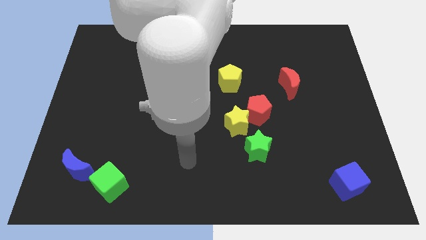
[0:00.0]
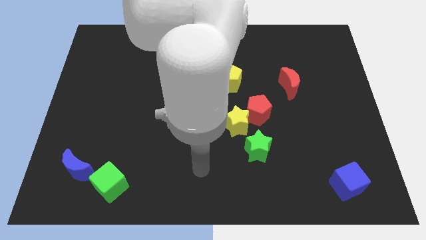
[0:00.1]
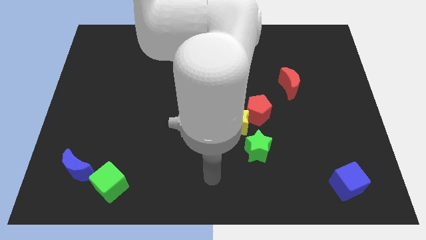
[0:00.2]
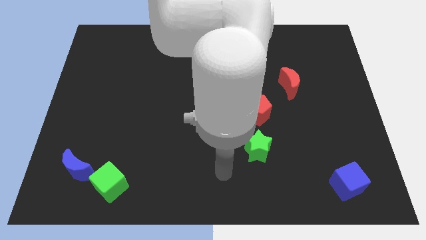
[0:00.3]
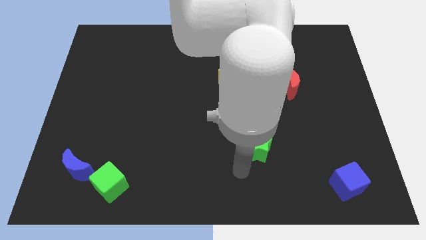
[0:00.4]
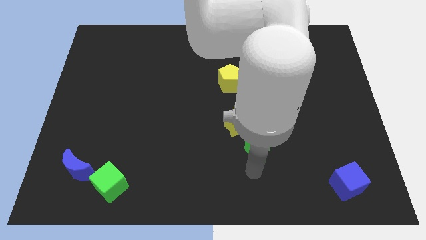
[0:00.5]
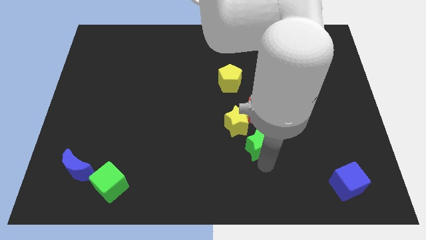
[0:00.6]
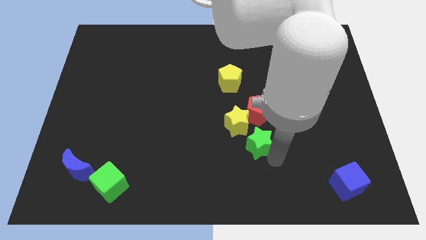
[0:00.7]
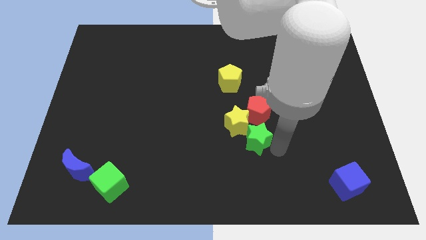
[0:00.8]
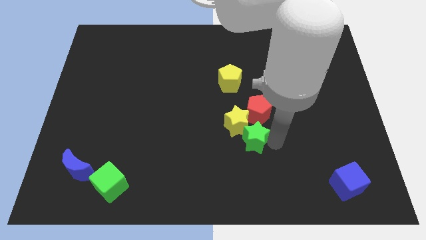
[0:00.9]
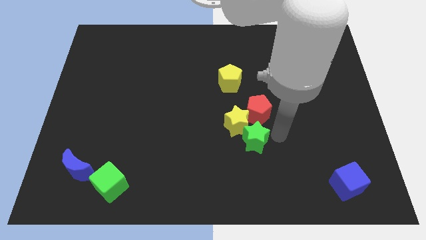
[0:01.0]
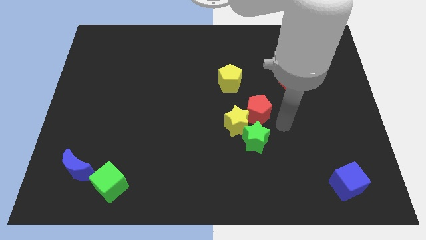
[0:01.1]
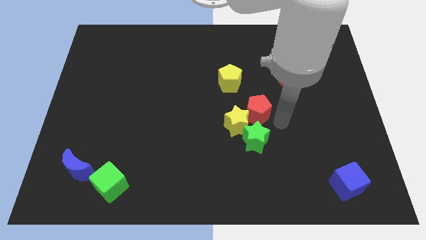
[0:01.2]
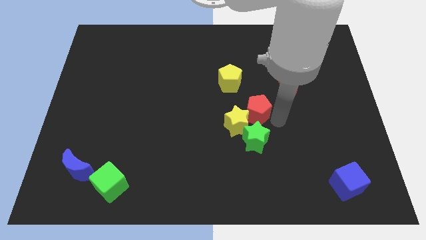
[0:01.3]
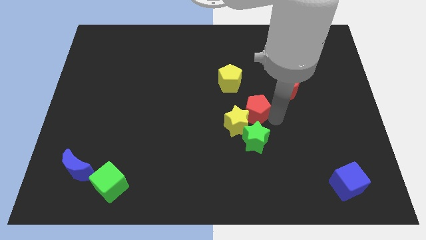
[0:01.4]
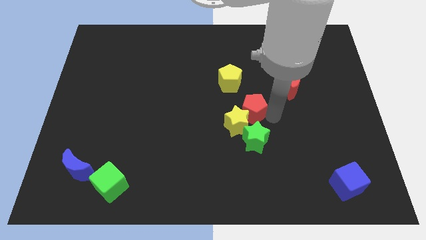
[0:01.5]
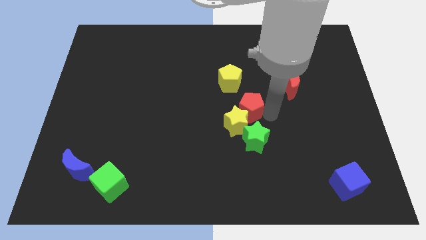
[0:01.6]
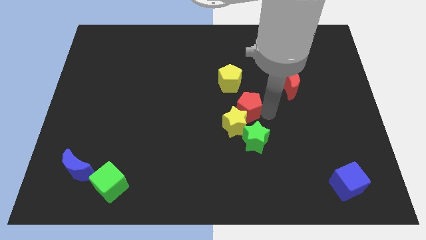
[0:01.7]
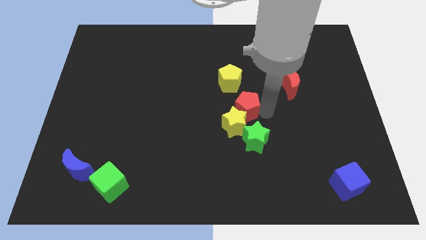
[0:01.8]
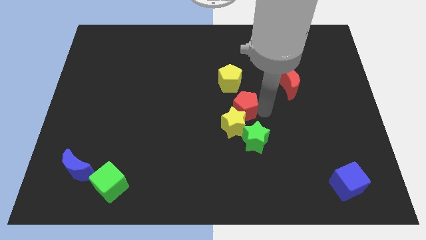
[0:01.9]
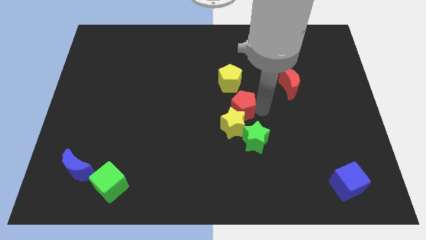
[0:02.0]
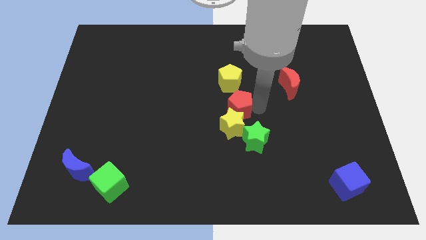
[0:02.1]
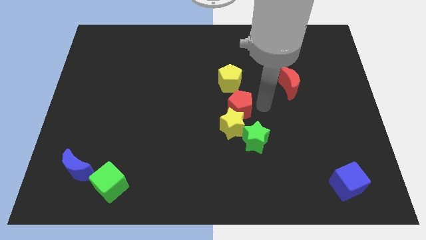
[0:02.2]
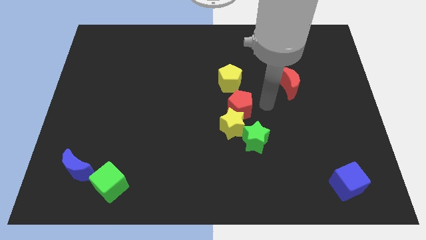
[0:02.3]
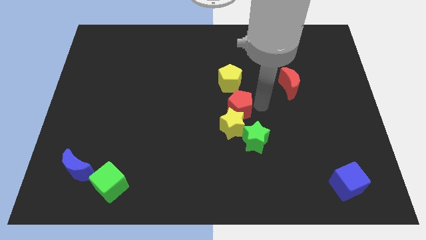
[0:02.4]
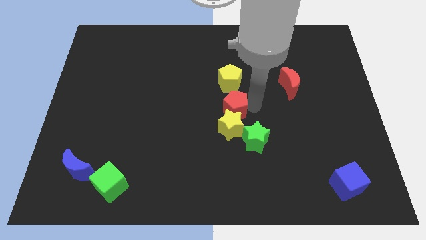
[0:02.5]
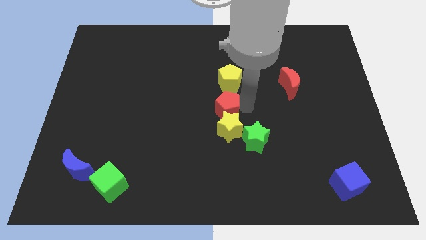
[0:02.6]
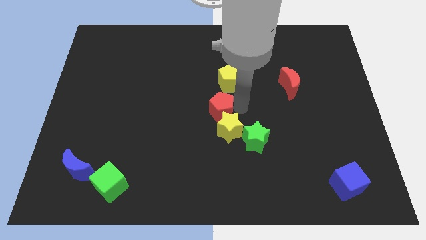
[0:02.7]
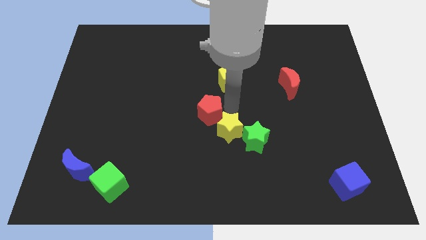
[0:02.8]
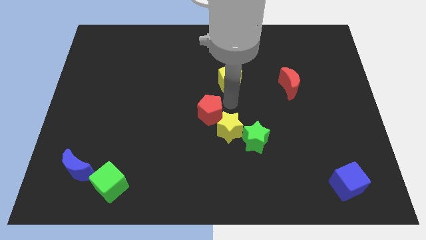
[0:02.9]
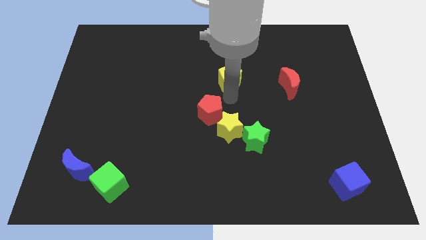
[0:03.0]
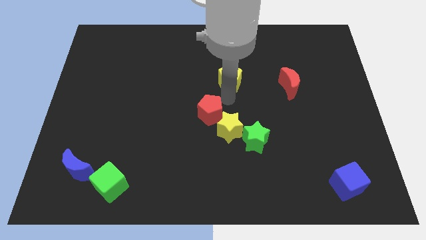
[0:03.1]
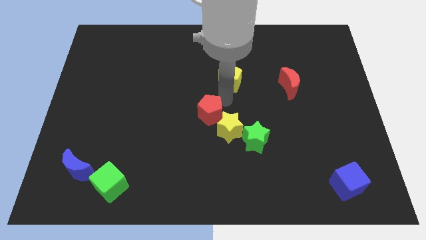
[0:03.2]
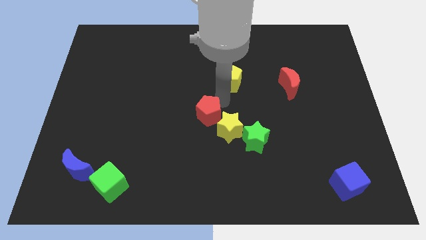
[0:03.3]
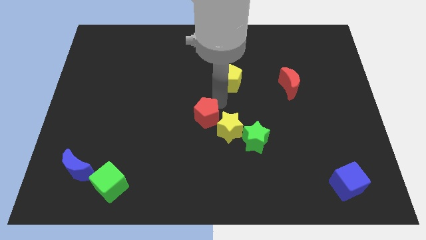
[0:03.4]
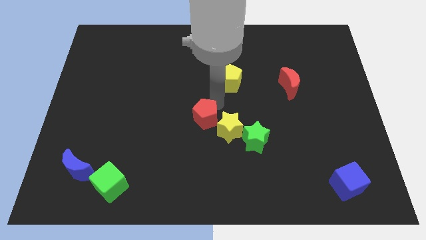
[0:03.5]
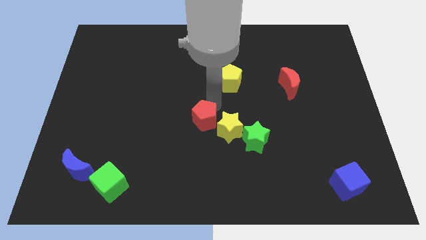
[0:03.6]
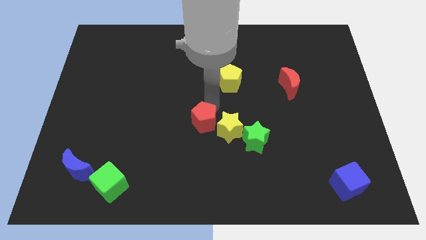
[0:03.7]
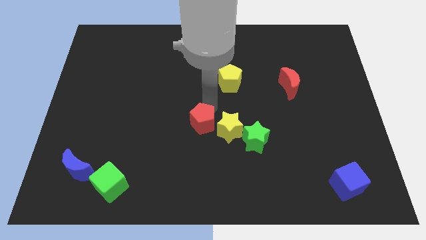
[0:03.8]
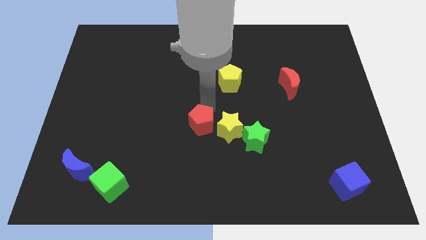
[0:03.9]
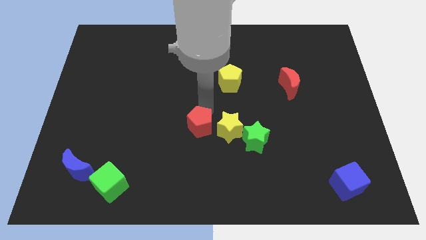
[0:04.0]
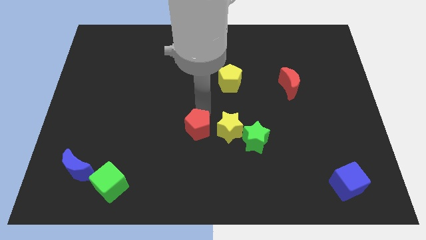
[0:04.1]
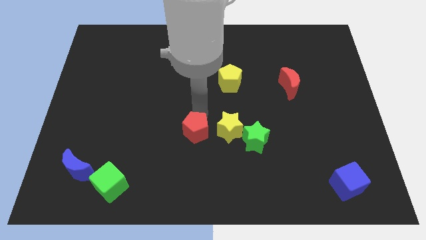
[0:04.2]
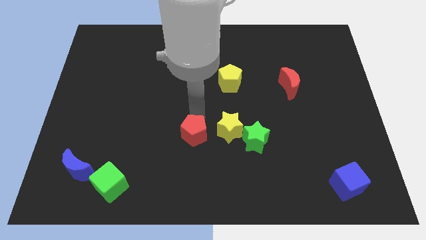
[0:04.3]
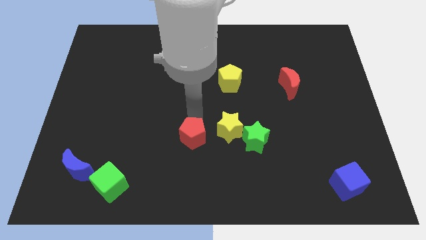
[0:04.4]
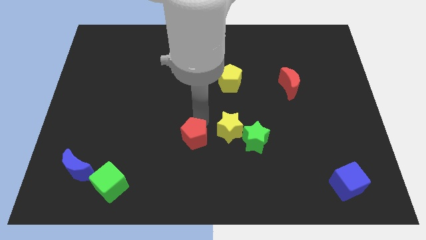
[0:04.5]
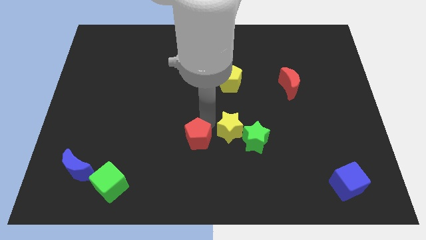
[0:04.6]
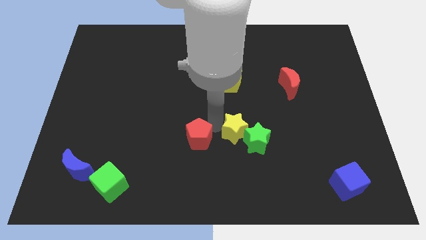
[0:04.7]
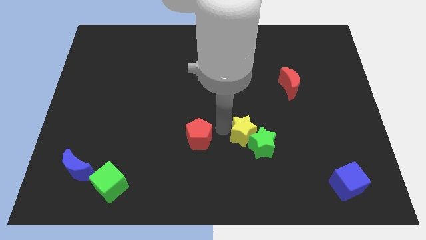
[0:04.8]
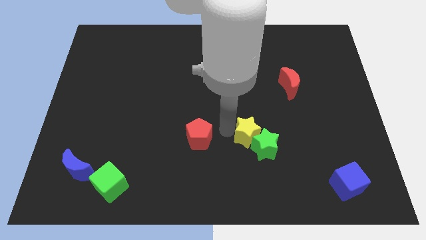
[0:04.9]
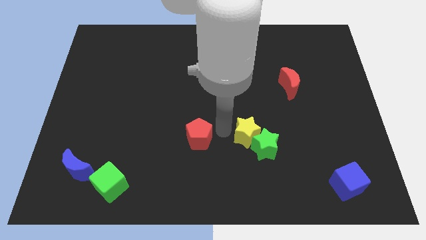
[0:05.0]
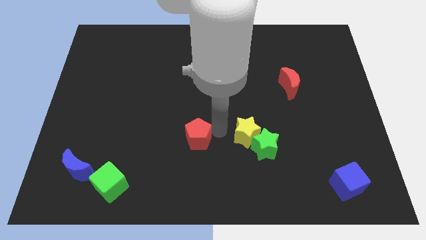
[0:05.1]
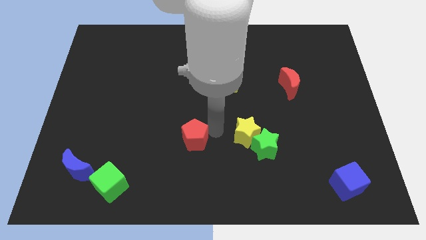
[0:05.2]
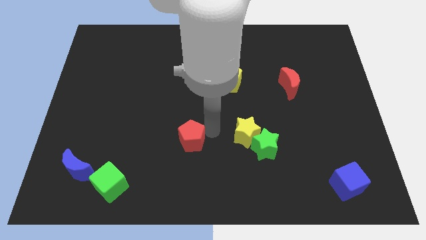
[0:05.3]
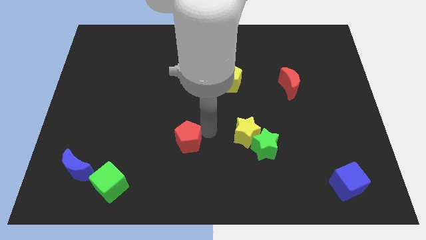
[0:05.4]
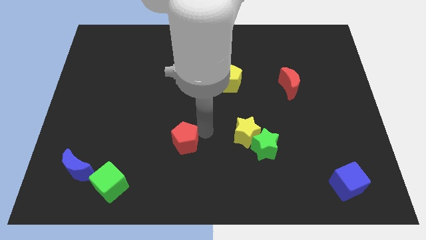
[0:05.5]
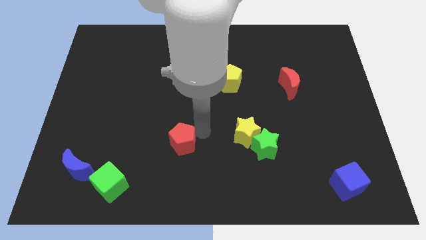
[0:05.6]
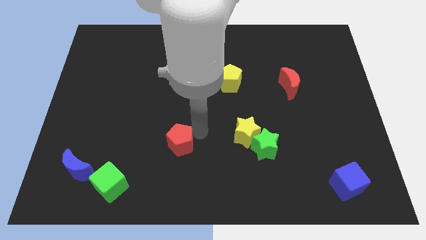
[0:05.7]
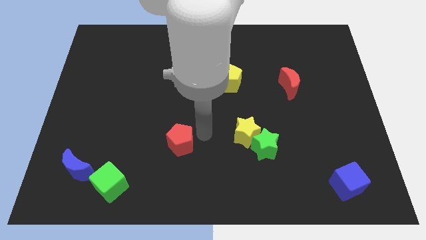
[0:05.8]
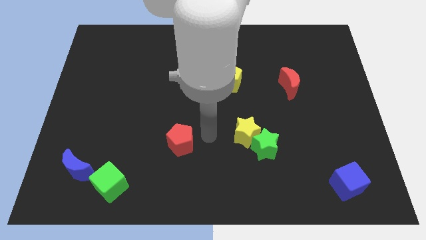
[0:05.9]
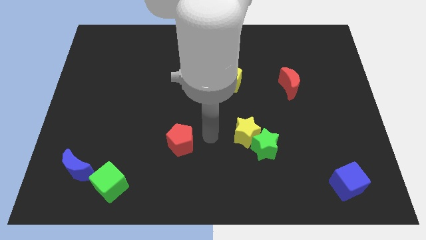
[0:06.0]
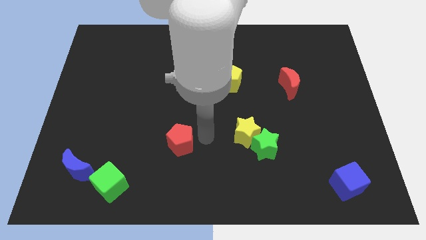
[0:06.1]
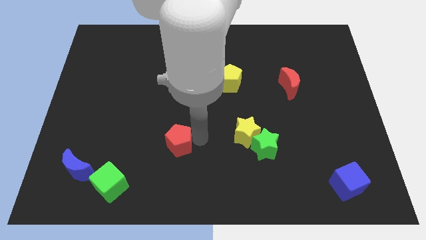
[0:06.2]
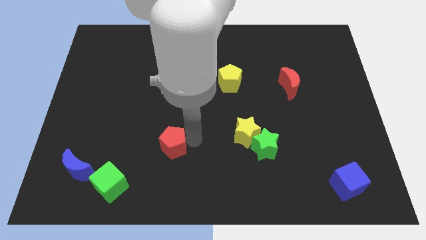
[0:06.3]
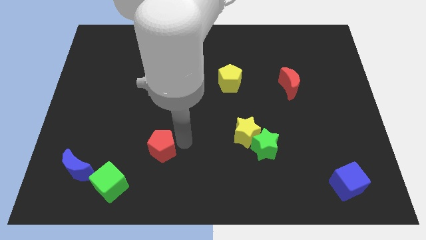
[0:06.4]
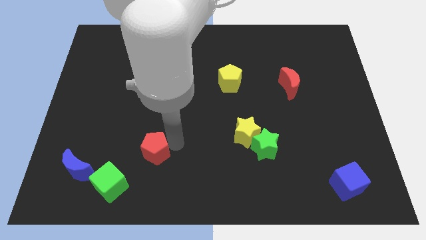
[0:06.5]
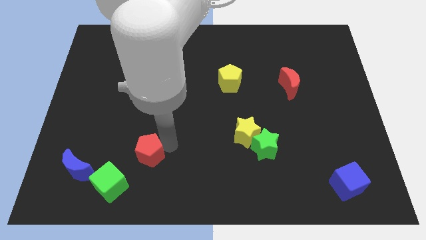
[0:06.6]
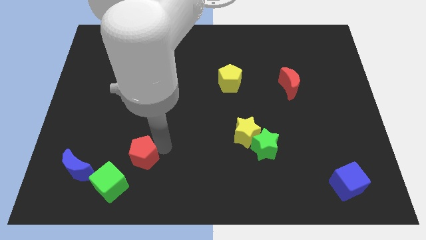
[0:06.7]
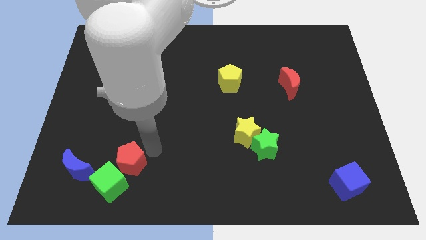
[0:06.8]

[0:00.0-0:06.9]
move the red pentagon to the green cube
